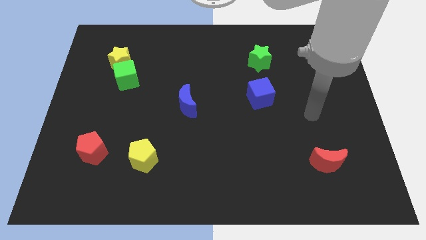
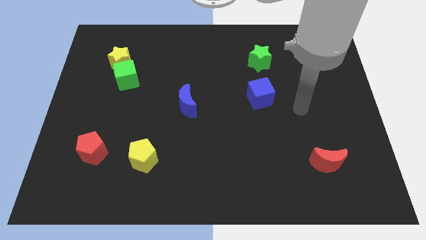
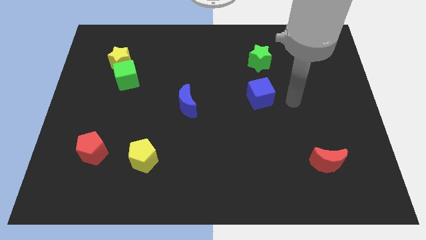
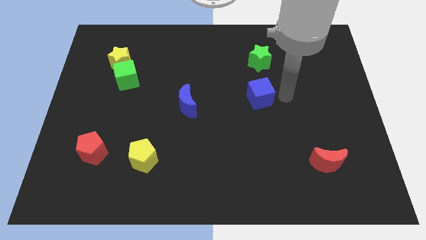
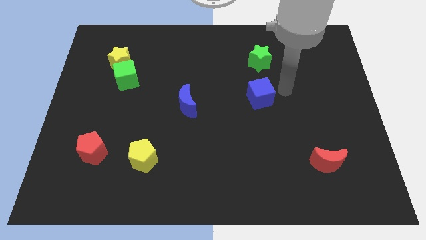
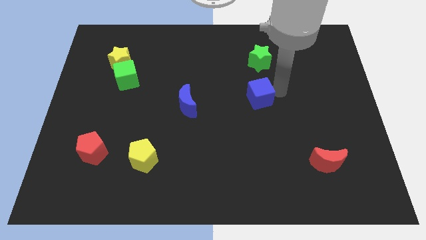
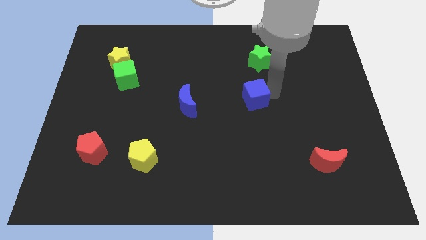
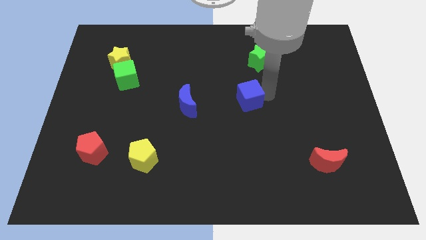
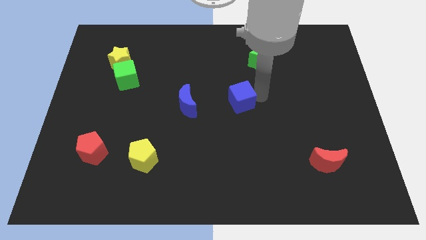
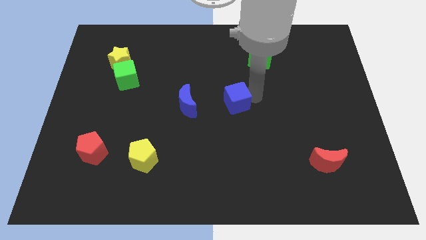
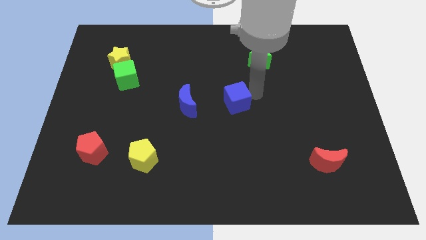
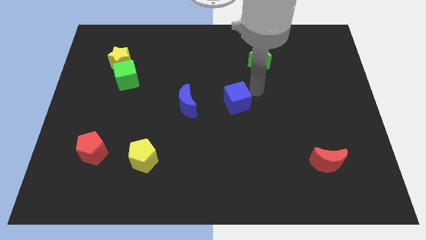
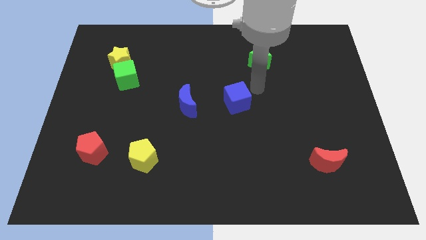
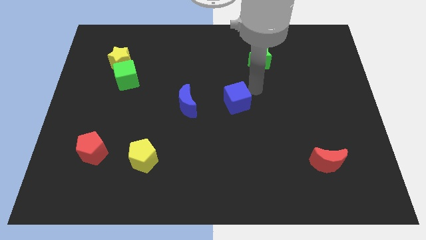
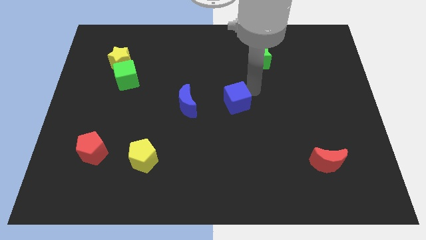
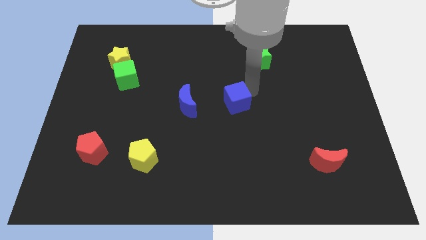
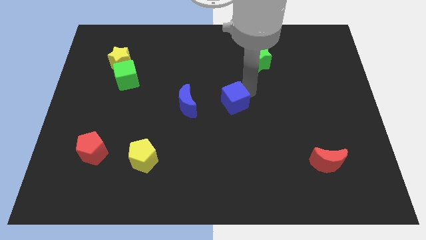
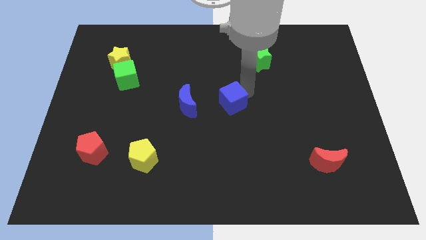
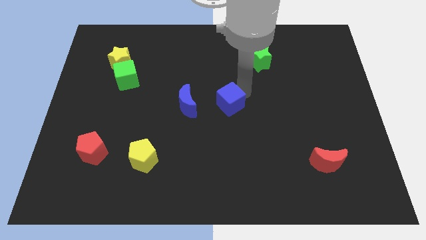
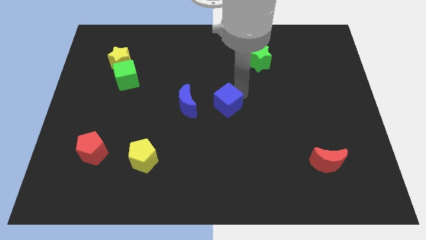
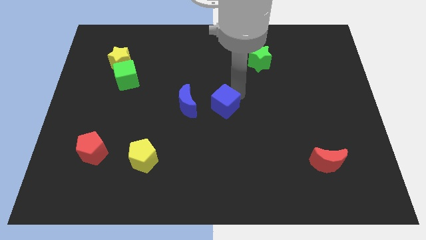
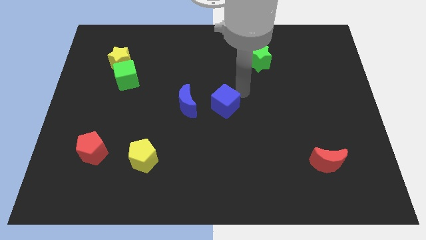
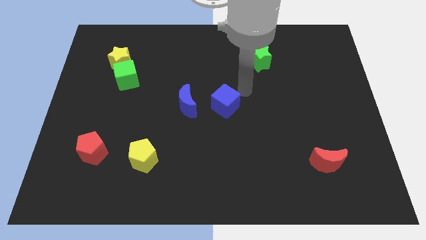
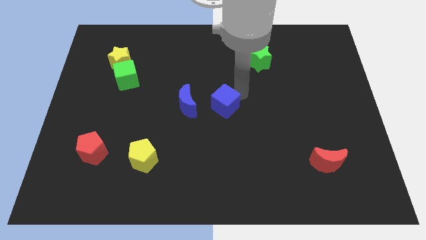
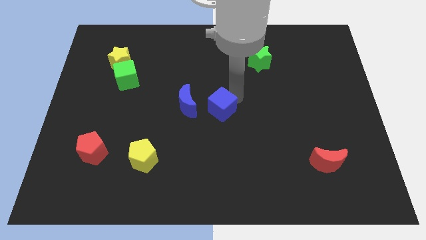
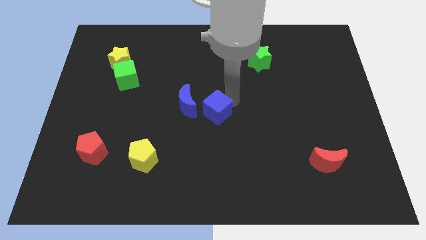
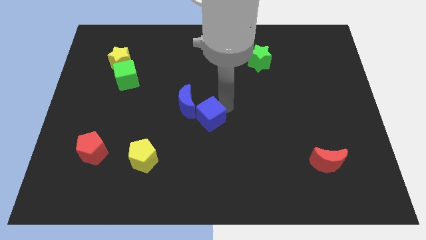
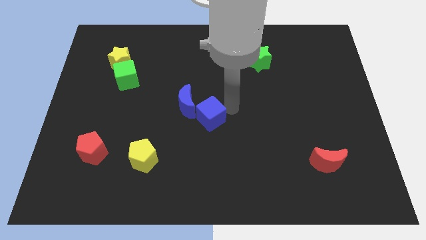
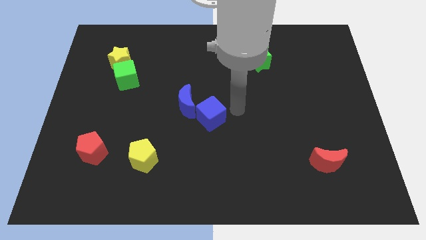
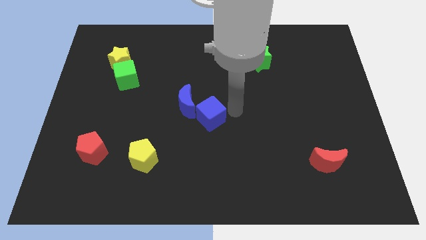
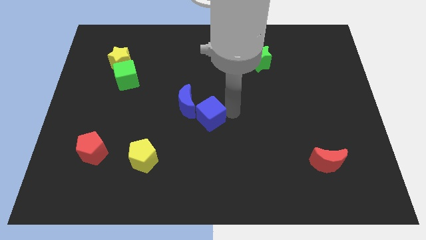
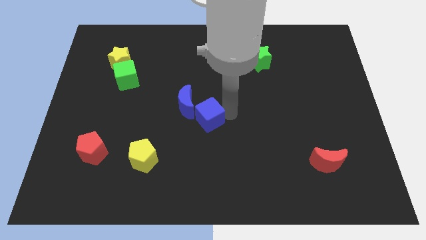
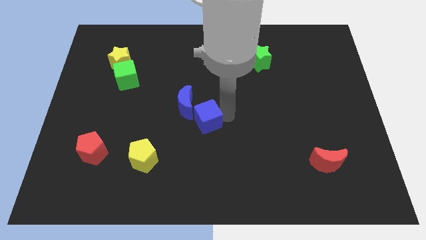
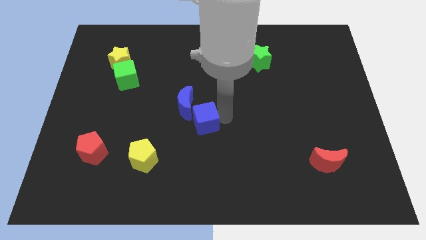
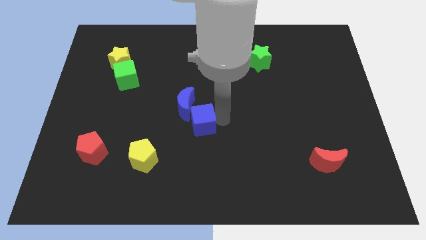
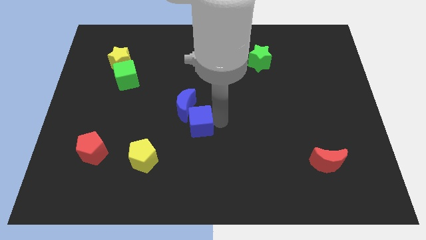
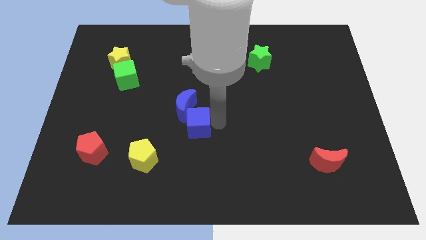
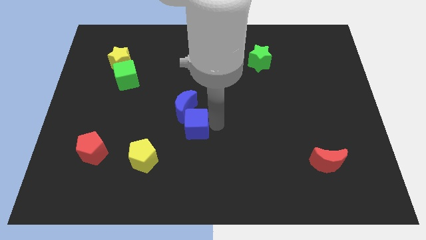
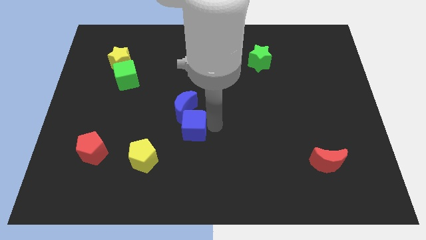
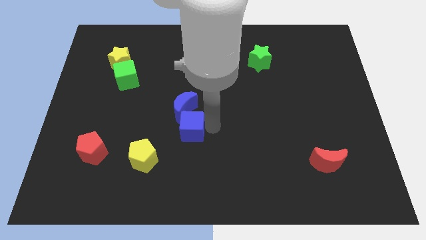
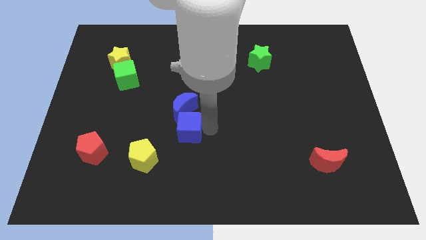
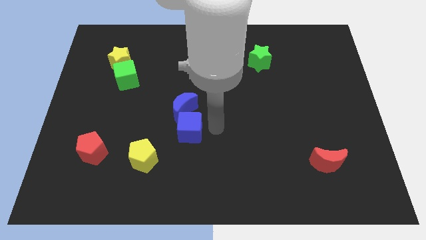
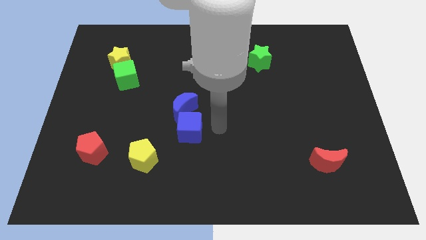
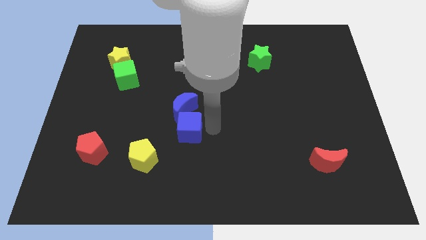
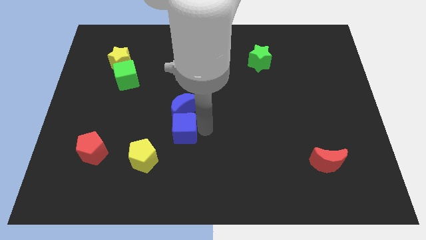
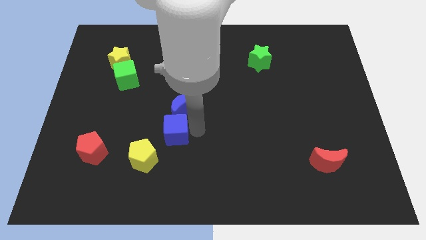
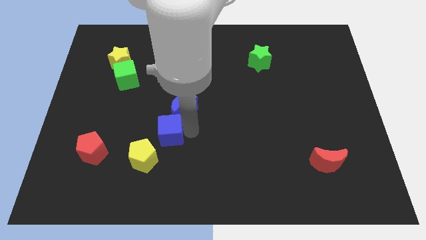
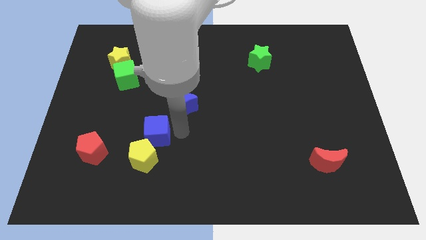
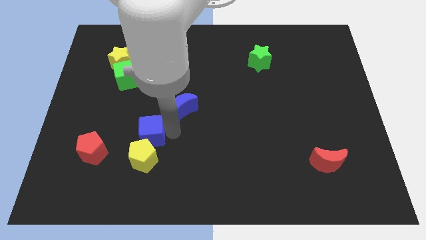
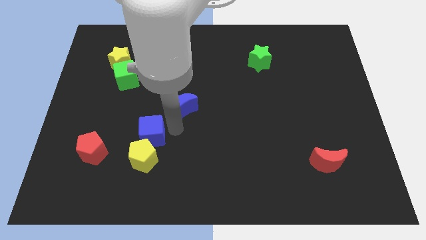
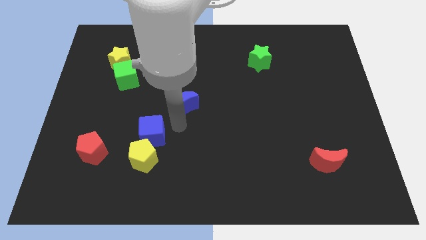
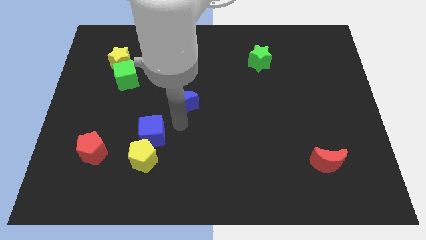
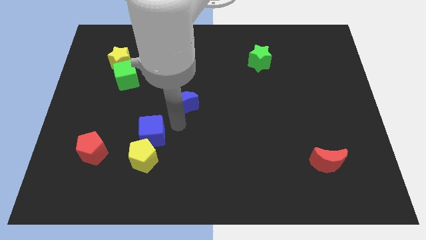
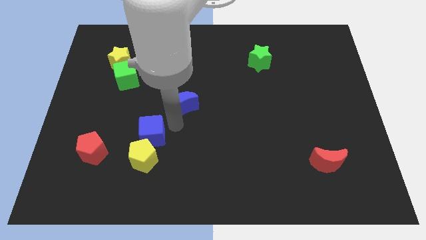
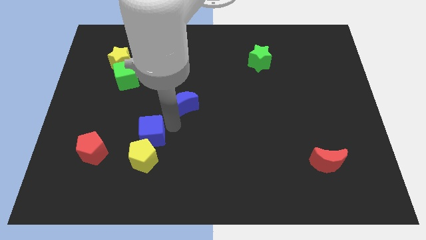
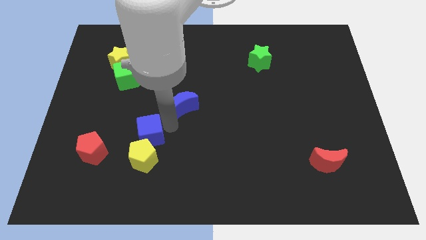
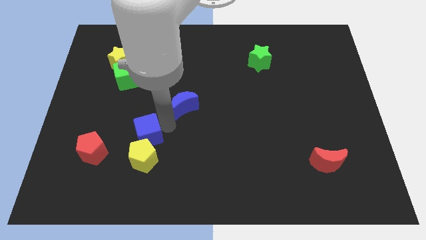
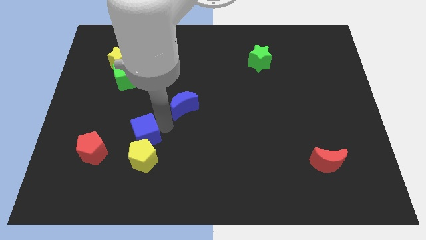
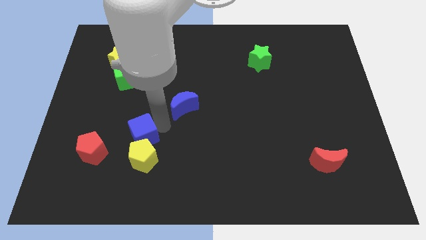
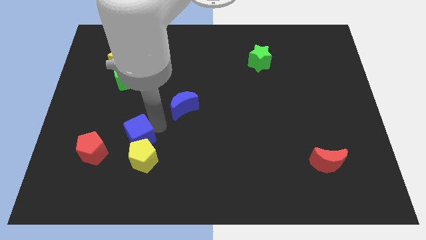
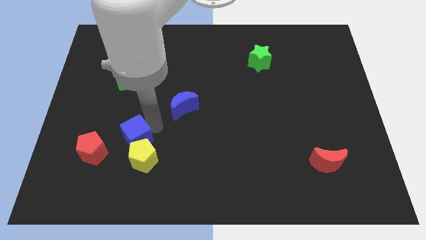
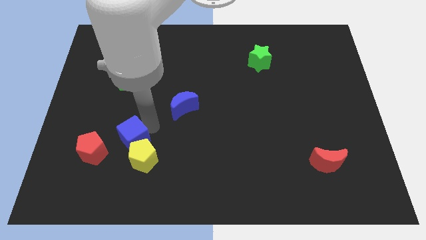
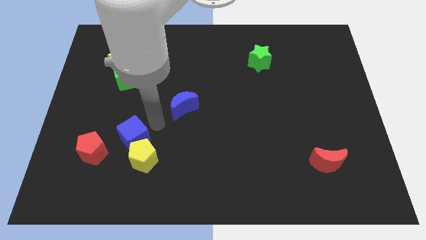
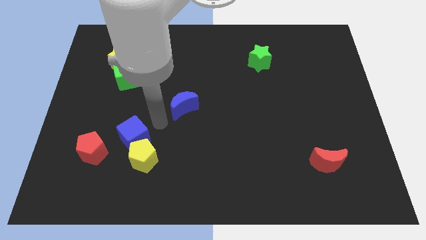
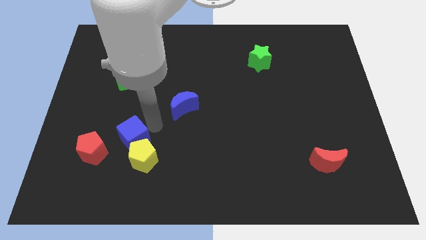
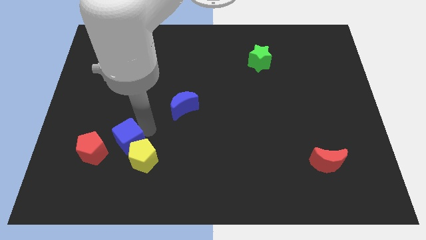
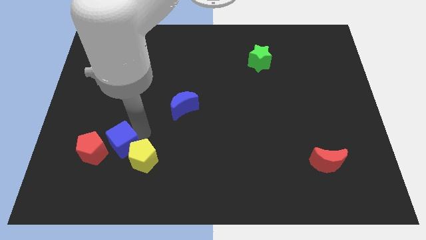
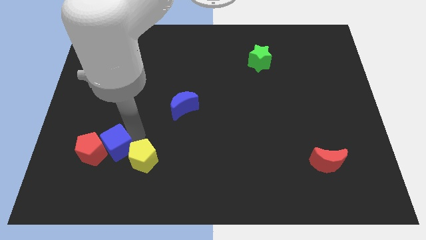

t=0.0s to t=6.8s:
put the blue cube next to the red pentagon
